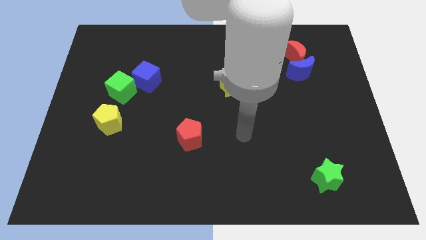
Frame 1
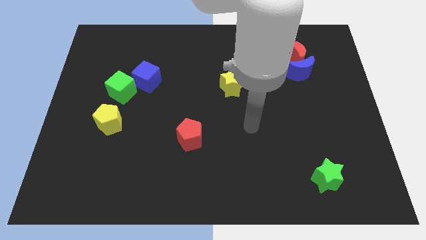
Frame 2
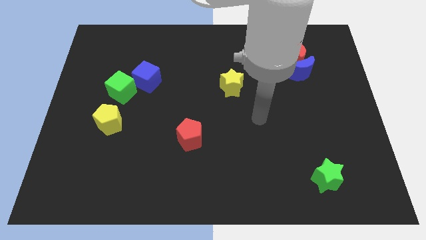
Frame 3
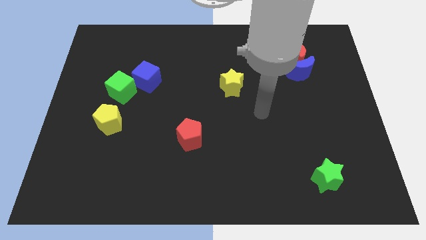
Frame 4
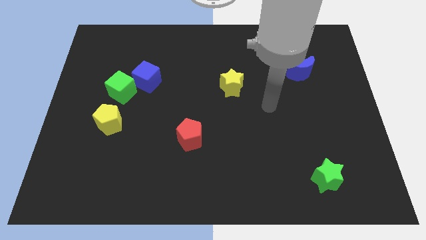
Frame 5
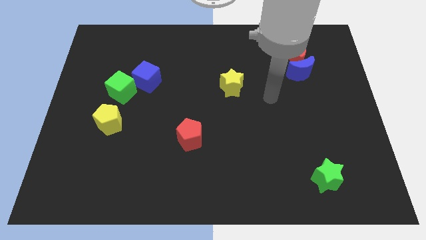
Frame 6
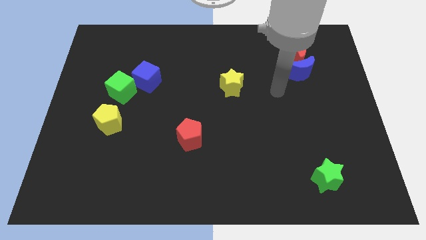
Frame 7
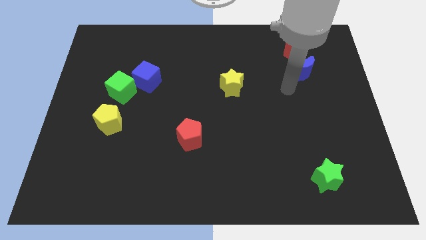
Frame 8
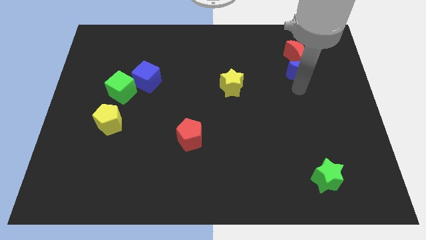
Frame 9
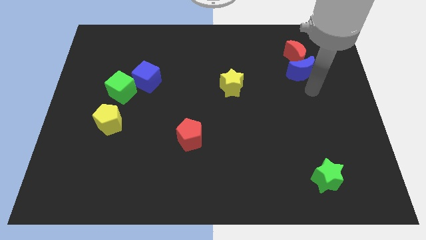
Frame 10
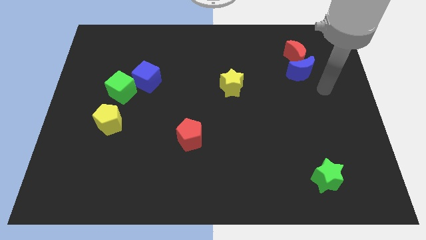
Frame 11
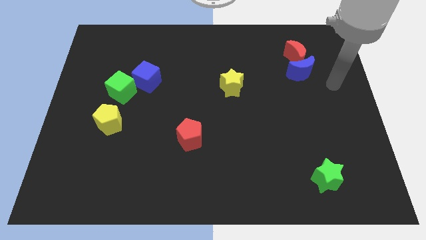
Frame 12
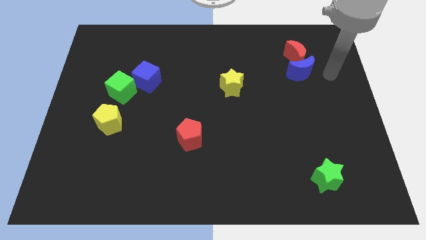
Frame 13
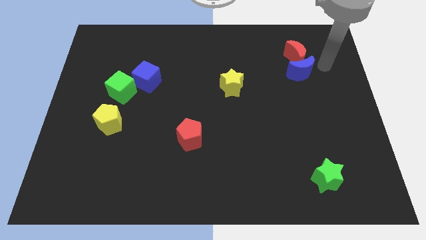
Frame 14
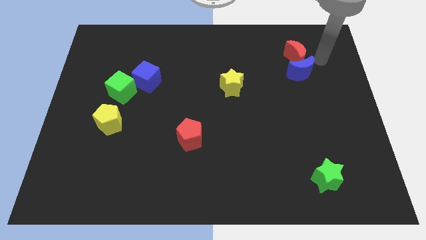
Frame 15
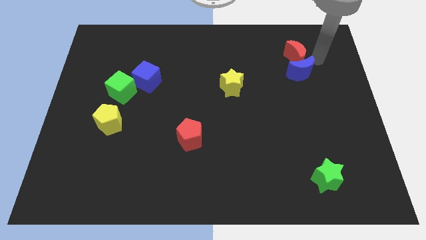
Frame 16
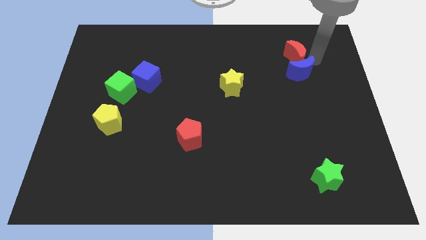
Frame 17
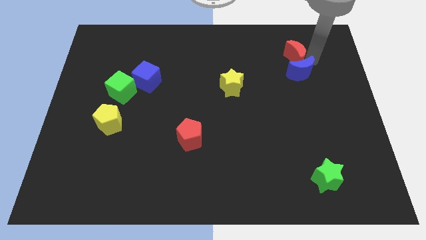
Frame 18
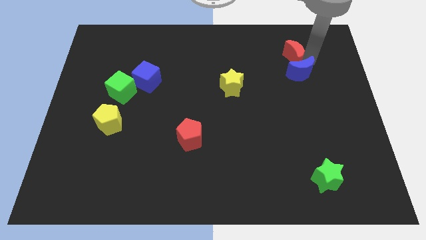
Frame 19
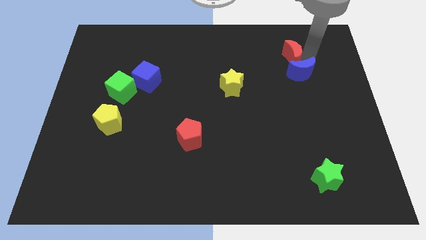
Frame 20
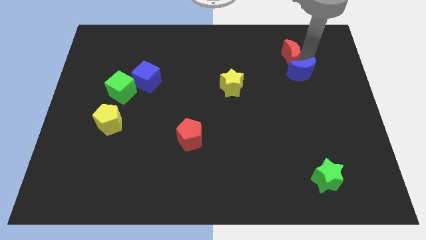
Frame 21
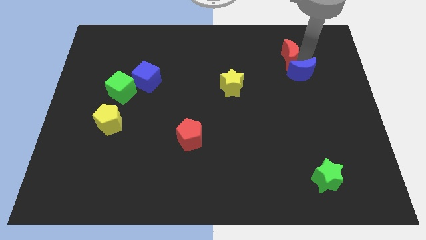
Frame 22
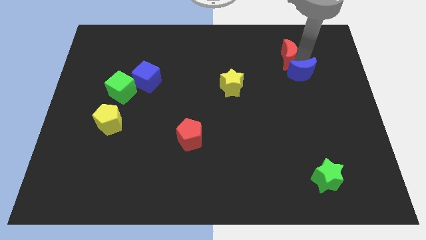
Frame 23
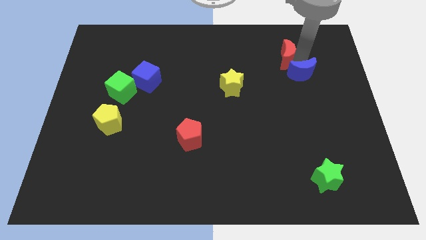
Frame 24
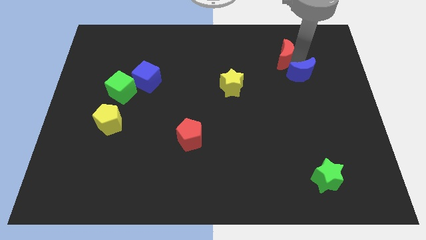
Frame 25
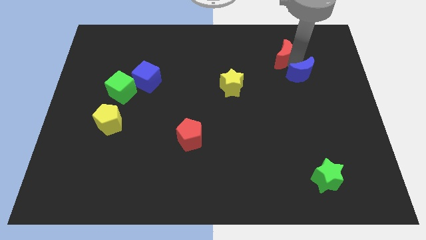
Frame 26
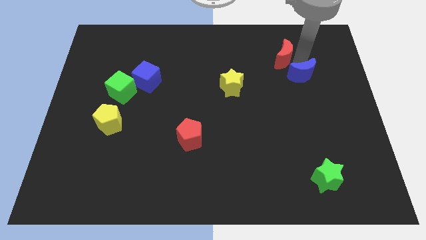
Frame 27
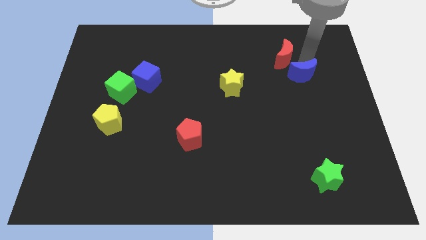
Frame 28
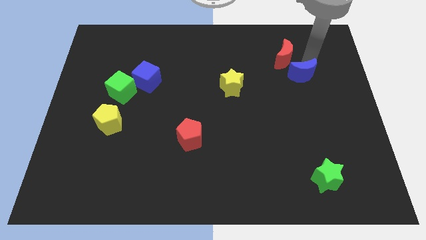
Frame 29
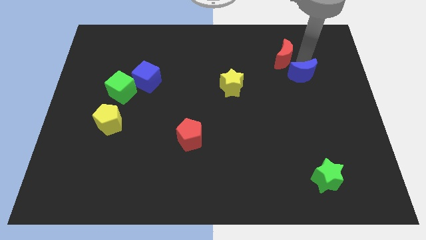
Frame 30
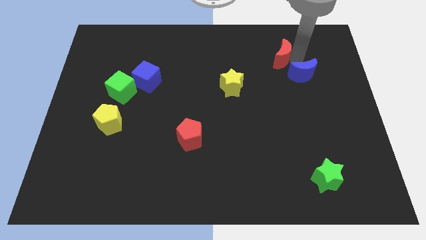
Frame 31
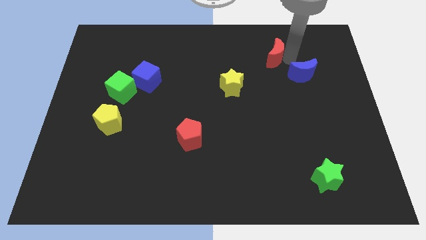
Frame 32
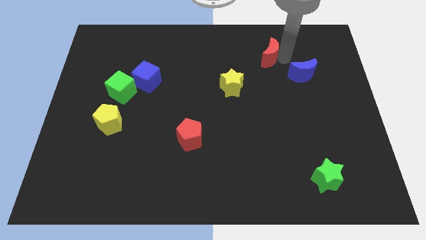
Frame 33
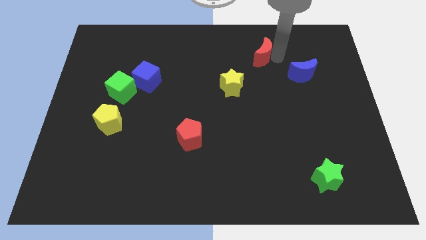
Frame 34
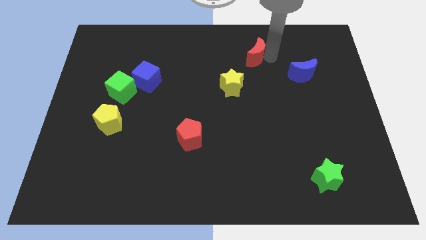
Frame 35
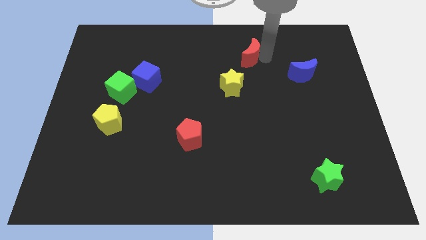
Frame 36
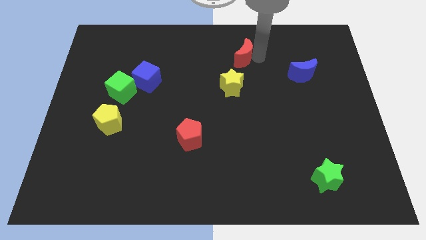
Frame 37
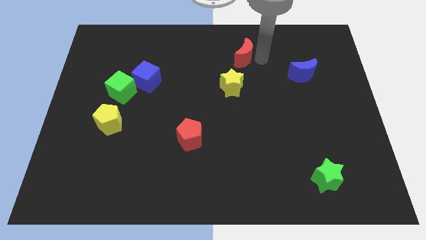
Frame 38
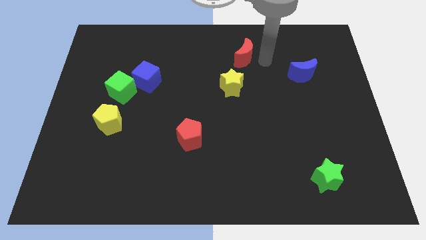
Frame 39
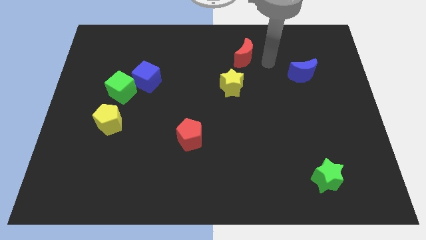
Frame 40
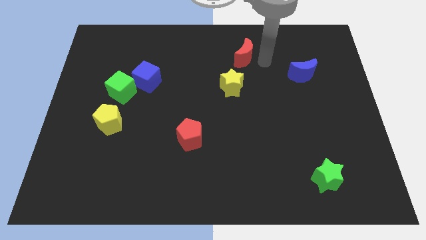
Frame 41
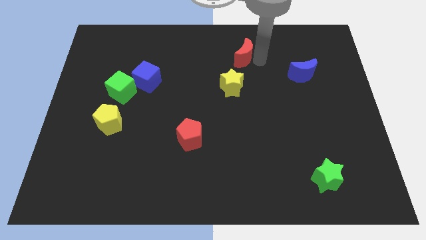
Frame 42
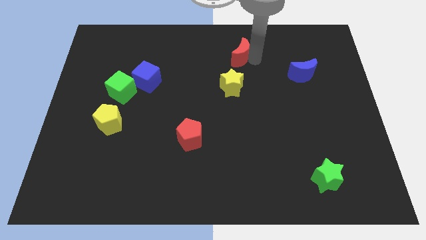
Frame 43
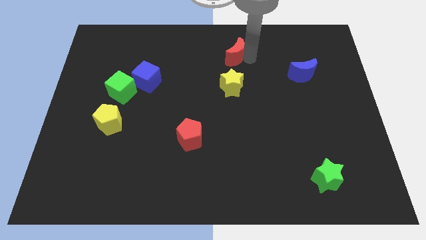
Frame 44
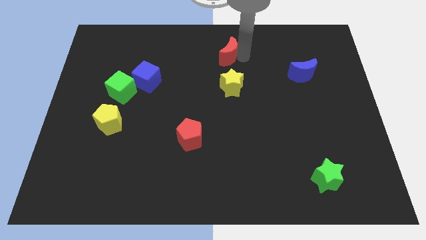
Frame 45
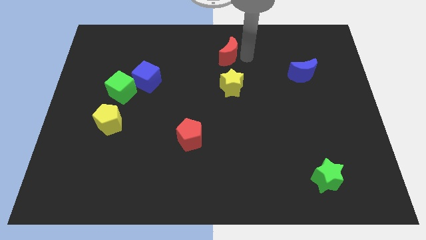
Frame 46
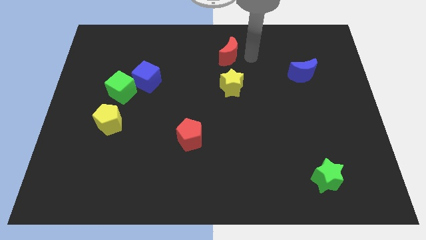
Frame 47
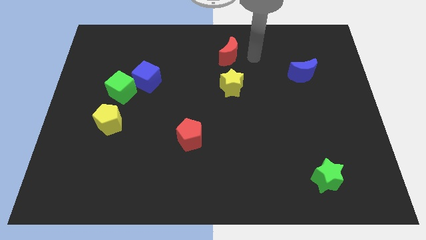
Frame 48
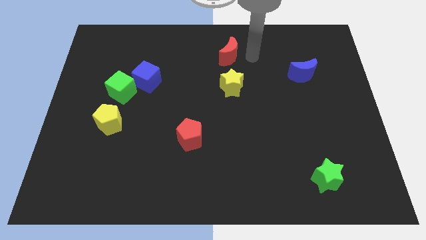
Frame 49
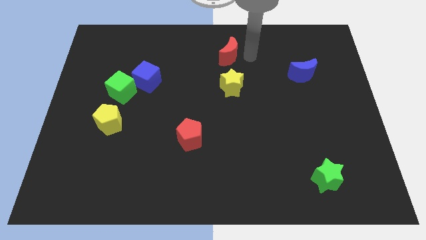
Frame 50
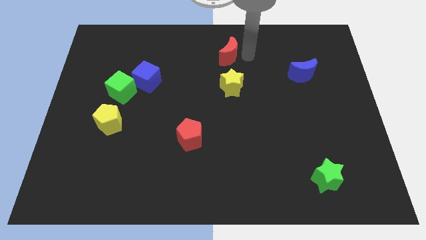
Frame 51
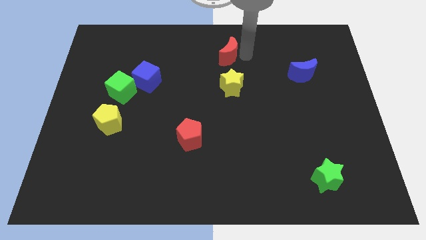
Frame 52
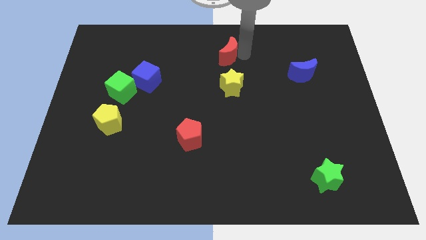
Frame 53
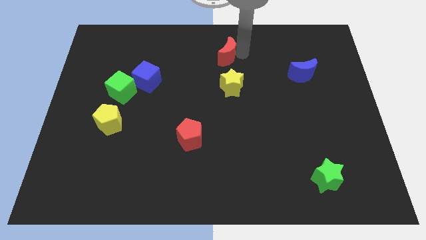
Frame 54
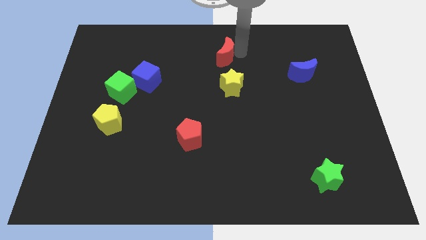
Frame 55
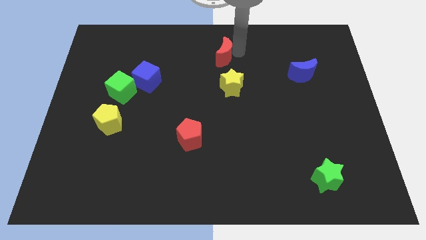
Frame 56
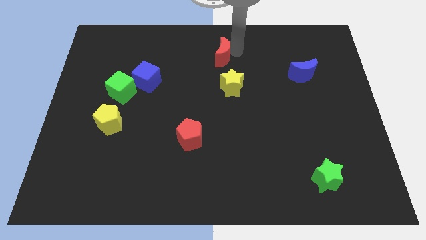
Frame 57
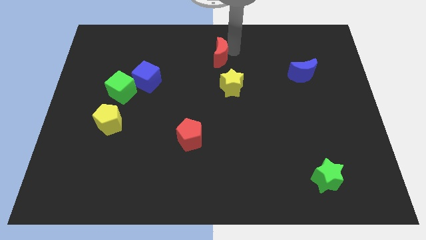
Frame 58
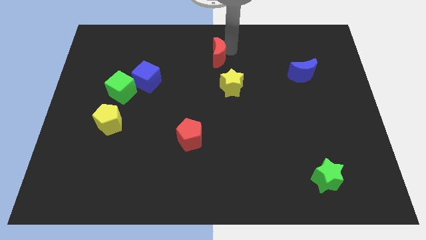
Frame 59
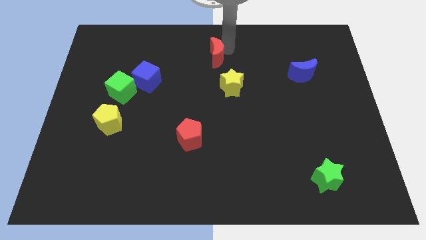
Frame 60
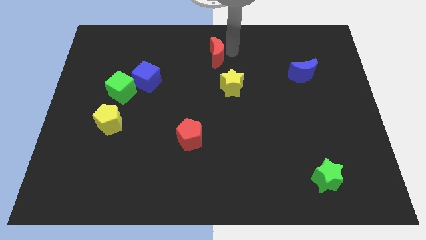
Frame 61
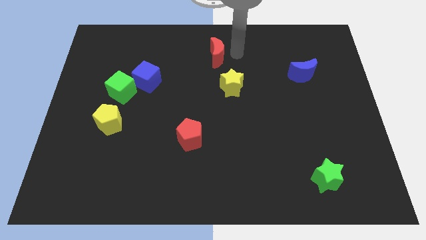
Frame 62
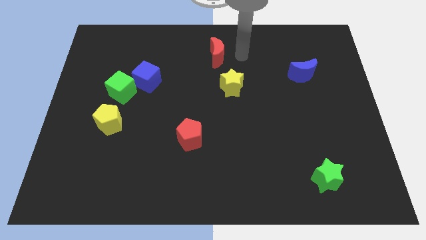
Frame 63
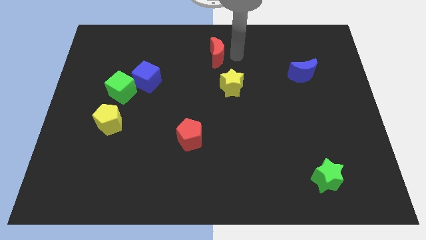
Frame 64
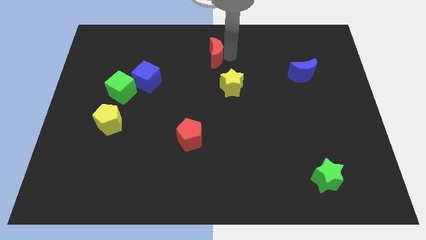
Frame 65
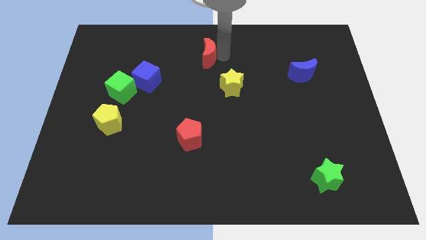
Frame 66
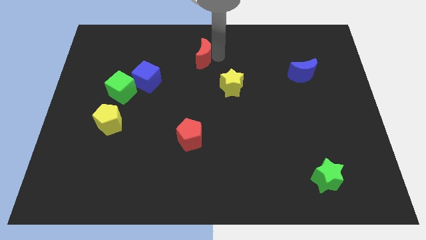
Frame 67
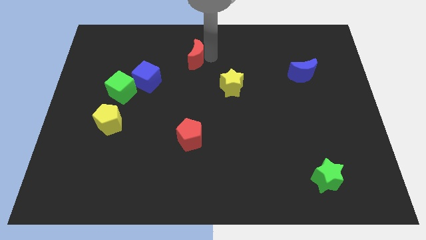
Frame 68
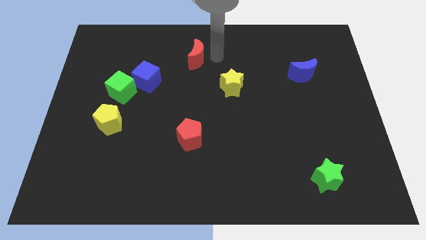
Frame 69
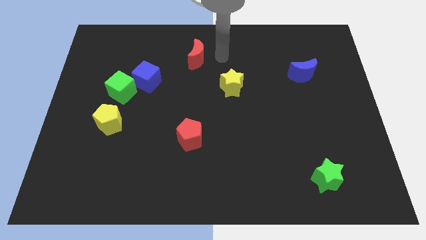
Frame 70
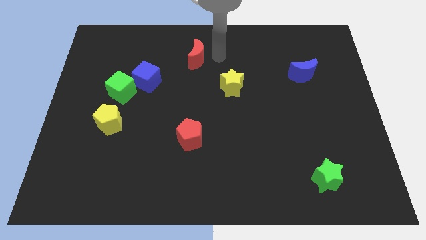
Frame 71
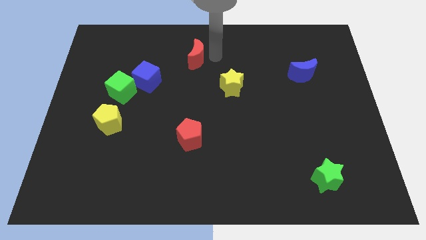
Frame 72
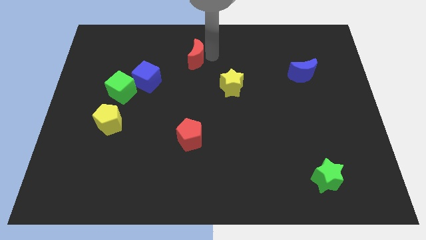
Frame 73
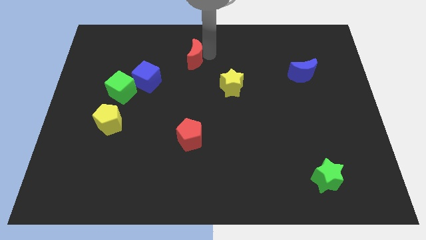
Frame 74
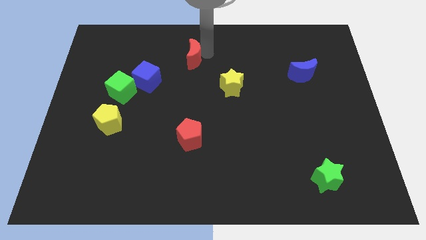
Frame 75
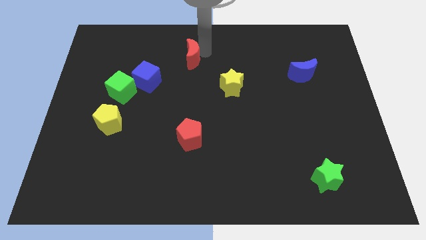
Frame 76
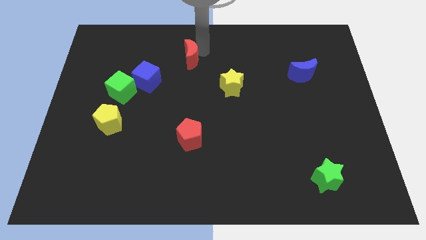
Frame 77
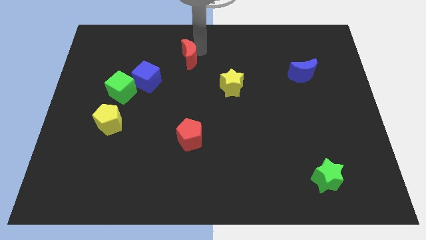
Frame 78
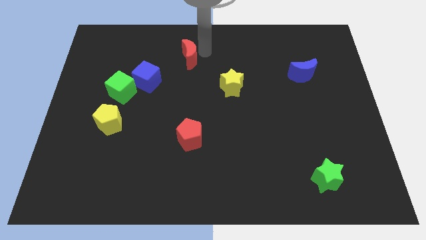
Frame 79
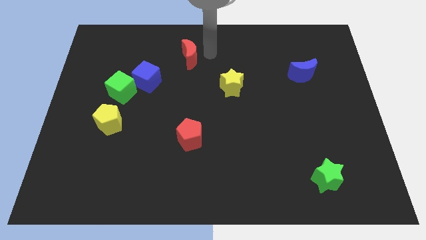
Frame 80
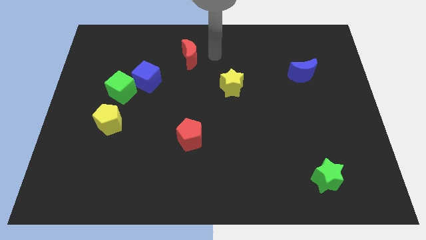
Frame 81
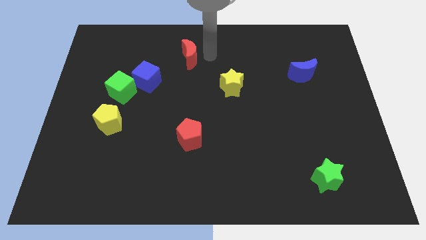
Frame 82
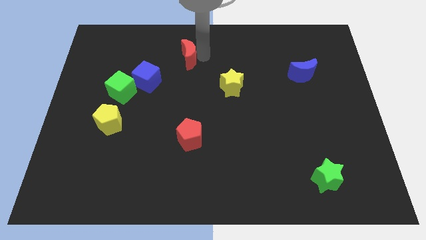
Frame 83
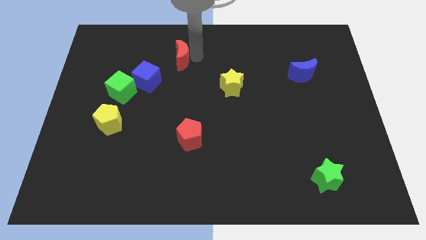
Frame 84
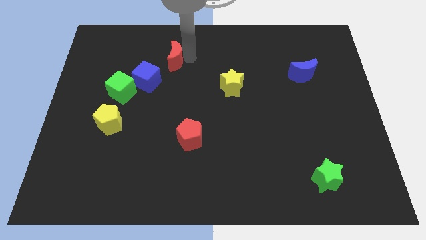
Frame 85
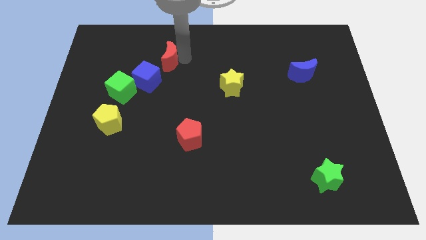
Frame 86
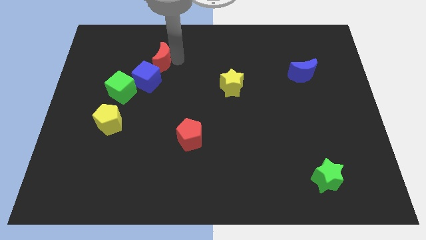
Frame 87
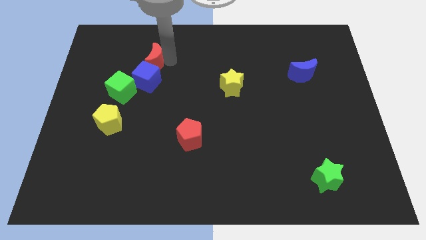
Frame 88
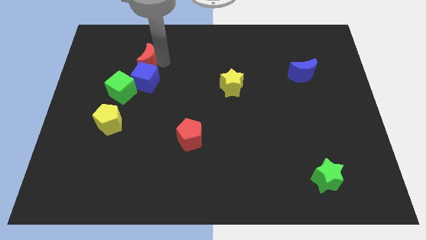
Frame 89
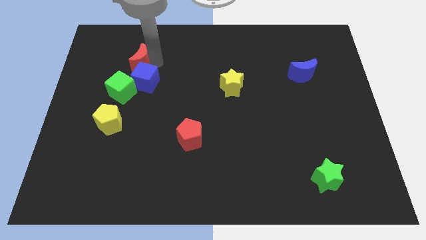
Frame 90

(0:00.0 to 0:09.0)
slide the red moon above the green cube
